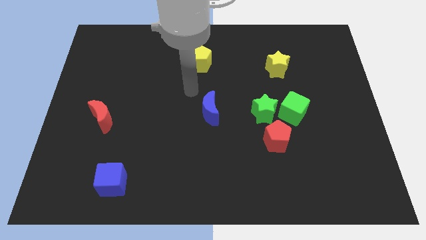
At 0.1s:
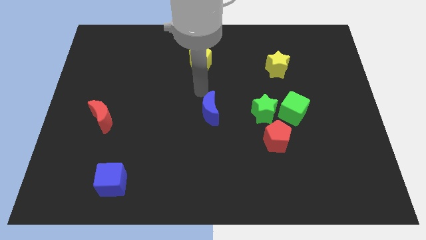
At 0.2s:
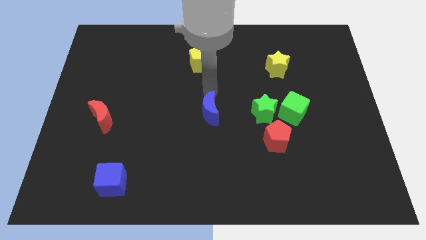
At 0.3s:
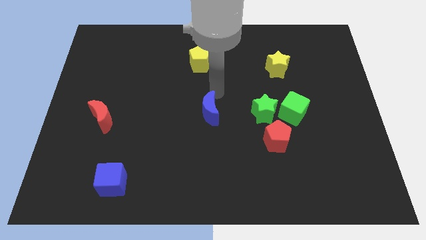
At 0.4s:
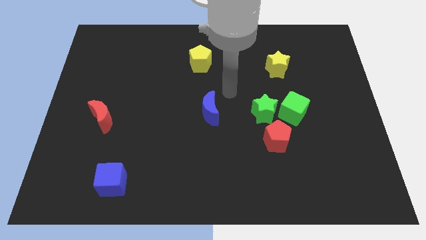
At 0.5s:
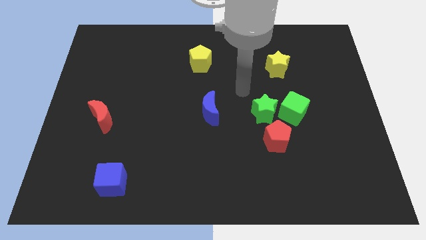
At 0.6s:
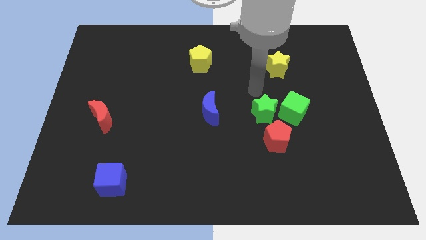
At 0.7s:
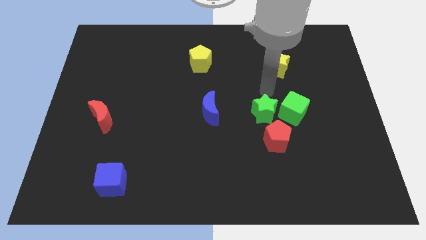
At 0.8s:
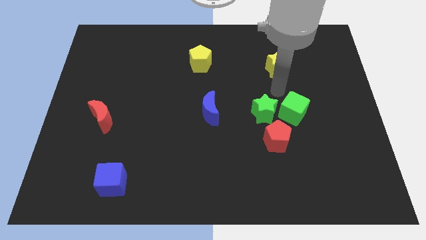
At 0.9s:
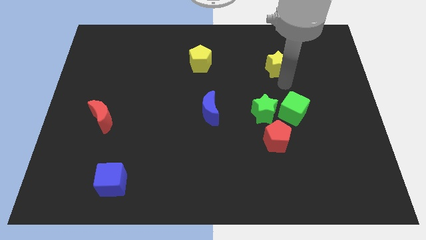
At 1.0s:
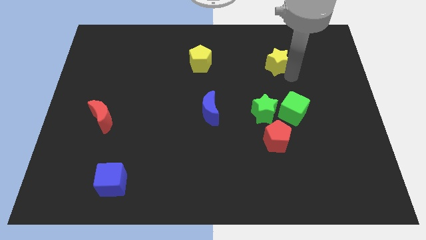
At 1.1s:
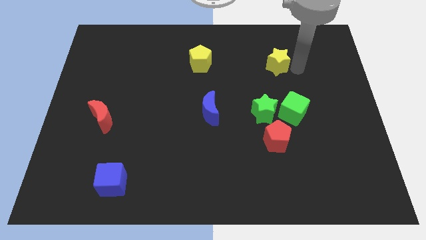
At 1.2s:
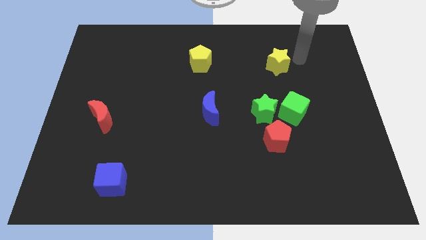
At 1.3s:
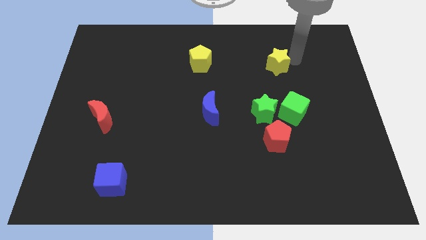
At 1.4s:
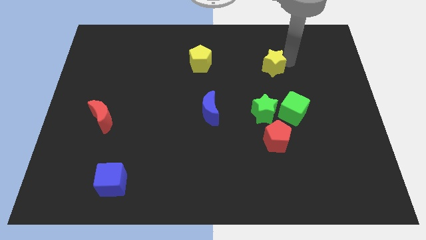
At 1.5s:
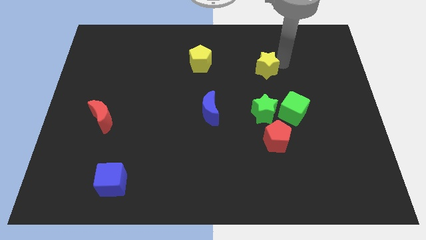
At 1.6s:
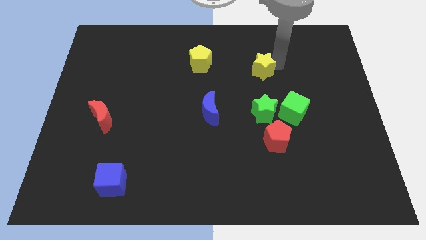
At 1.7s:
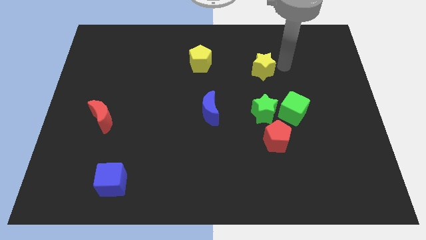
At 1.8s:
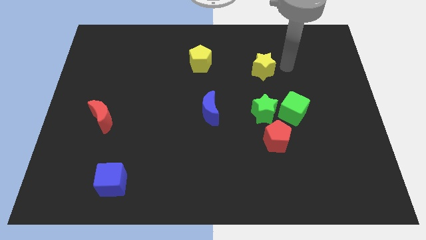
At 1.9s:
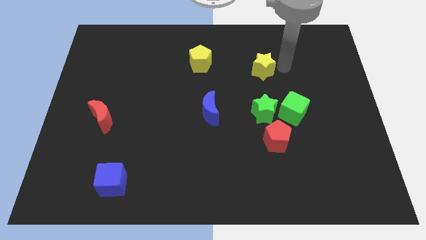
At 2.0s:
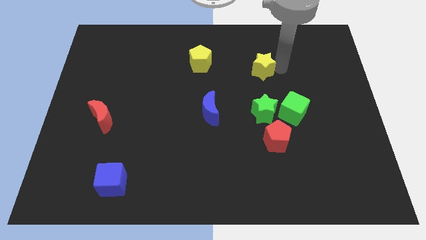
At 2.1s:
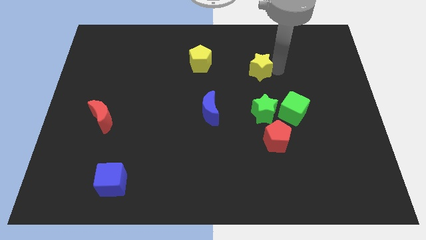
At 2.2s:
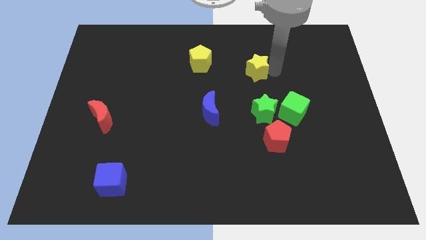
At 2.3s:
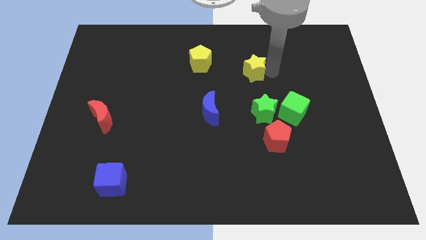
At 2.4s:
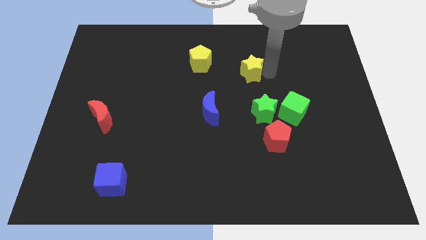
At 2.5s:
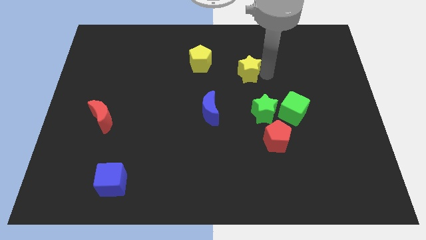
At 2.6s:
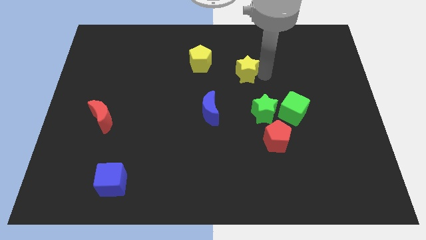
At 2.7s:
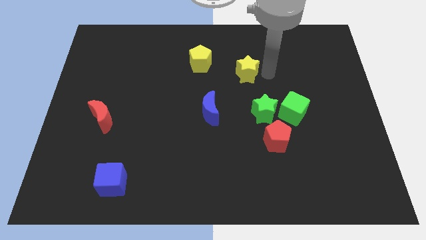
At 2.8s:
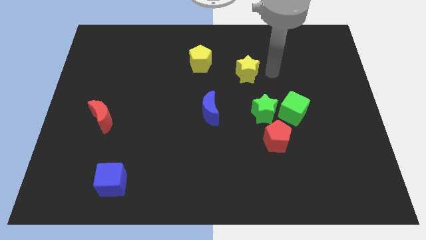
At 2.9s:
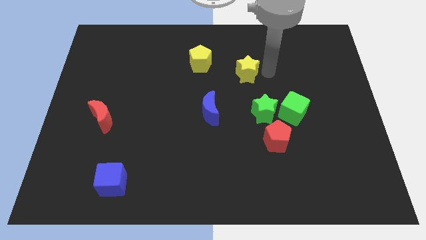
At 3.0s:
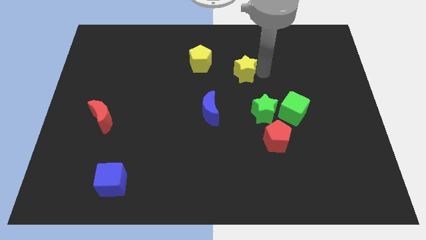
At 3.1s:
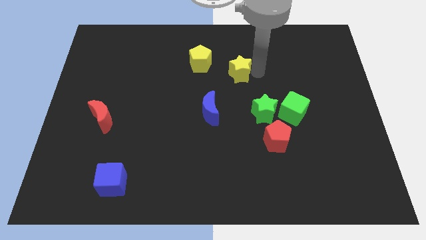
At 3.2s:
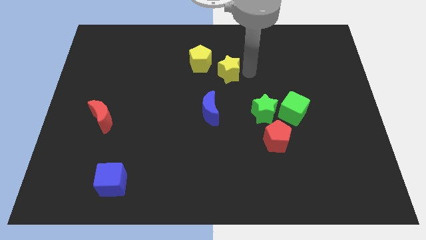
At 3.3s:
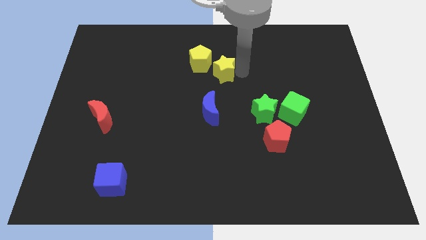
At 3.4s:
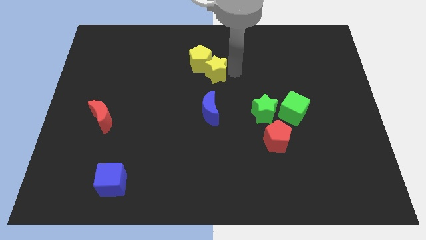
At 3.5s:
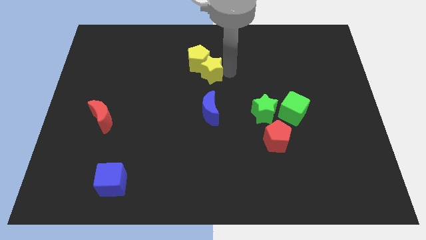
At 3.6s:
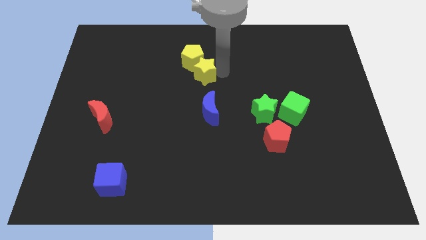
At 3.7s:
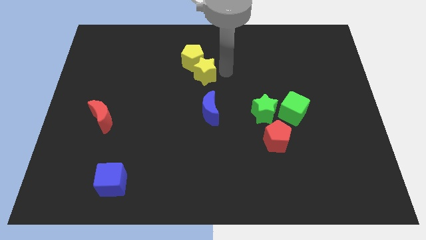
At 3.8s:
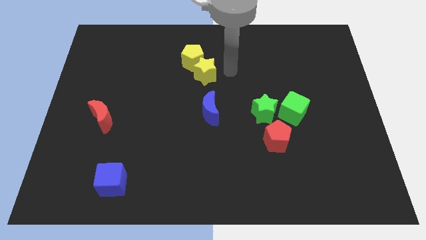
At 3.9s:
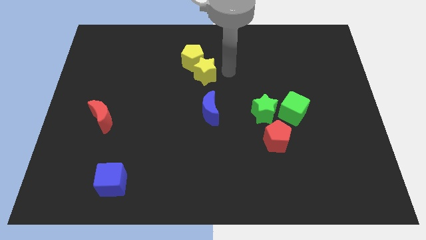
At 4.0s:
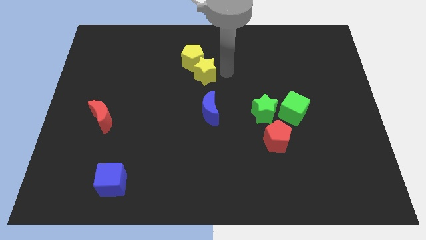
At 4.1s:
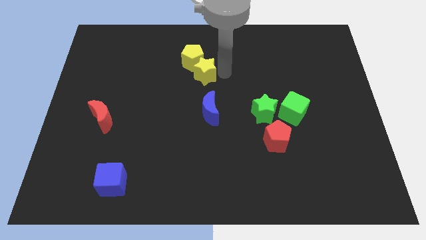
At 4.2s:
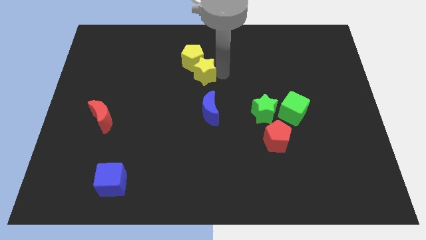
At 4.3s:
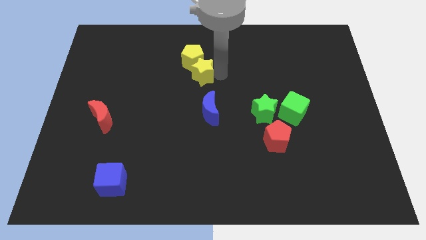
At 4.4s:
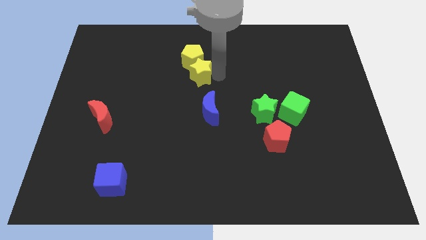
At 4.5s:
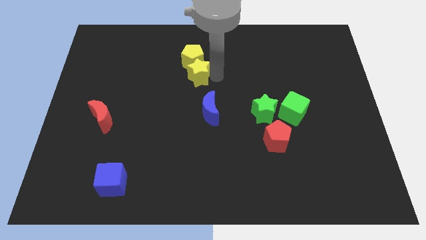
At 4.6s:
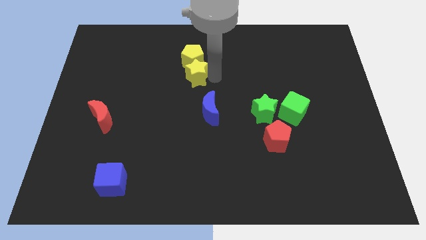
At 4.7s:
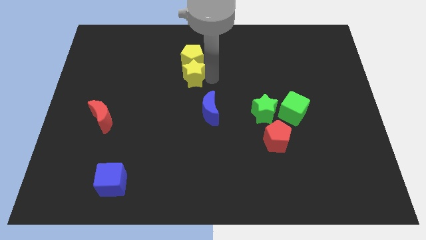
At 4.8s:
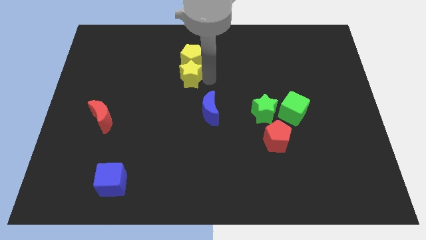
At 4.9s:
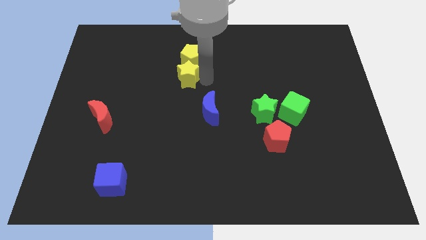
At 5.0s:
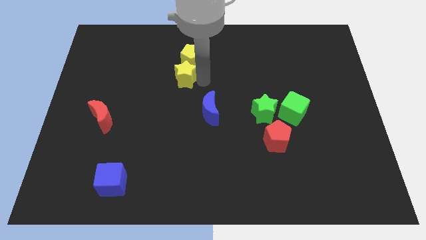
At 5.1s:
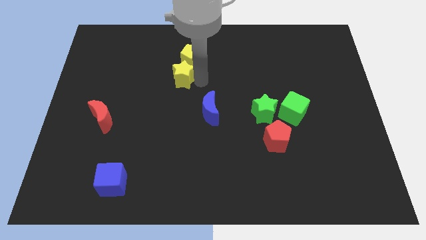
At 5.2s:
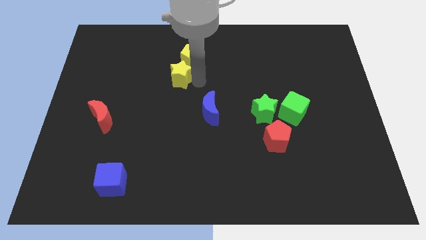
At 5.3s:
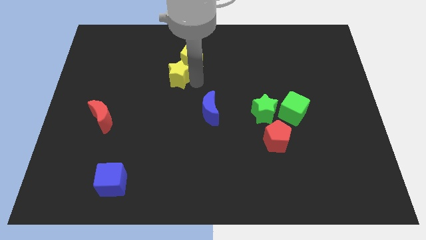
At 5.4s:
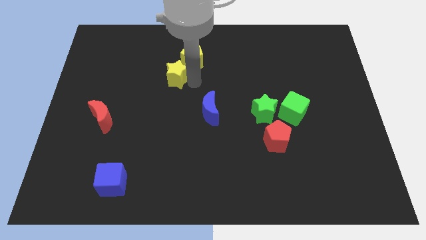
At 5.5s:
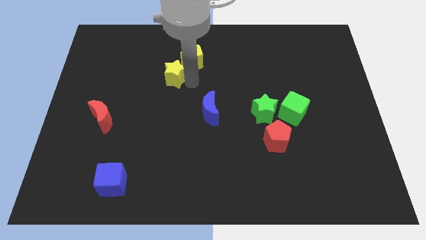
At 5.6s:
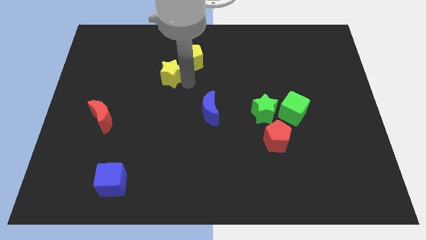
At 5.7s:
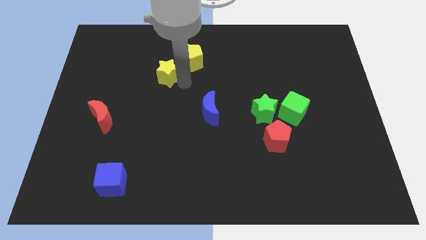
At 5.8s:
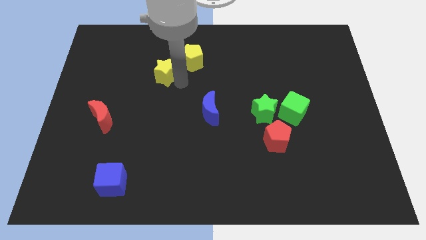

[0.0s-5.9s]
slide the yellow star to the left of the yellow pentagon

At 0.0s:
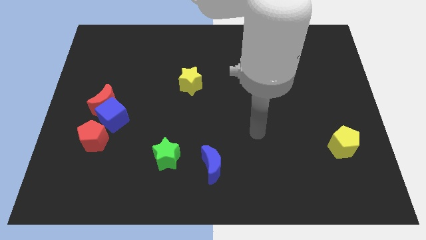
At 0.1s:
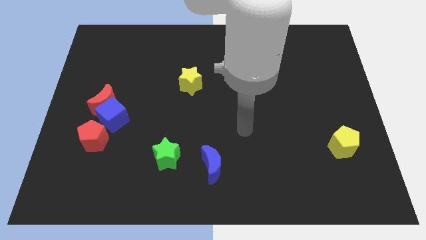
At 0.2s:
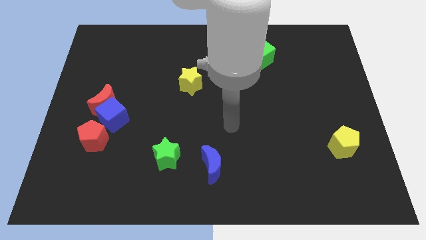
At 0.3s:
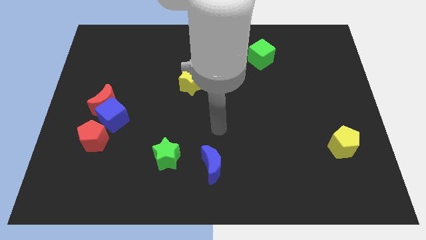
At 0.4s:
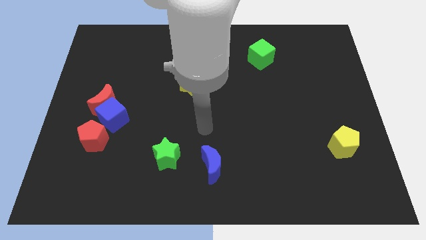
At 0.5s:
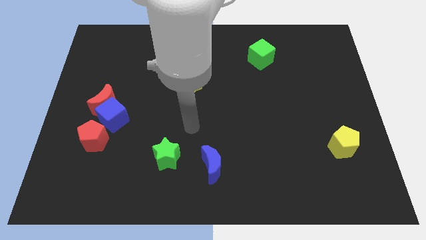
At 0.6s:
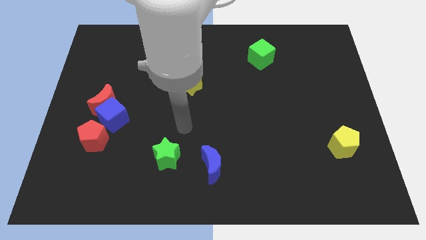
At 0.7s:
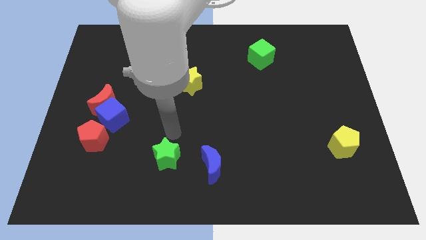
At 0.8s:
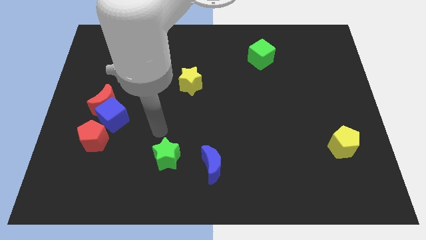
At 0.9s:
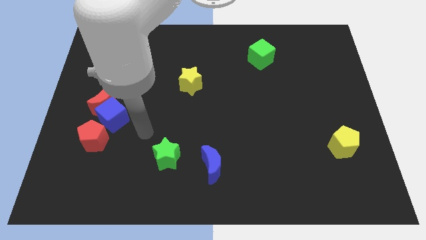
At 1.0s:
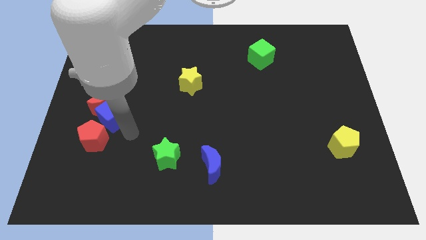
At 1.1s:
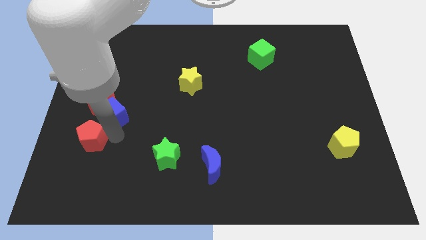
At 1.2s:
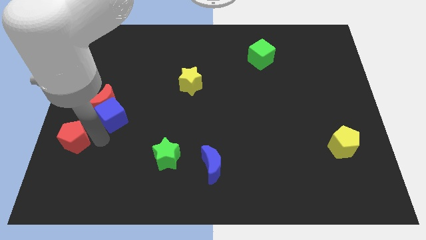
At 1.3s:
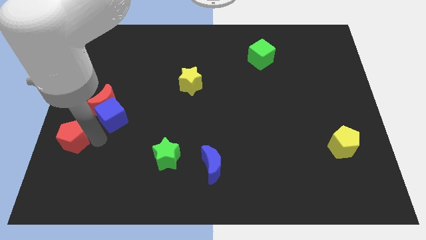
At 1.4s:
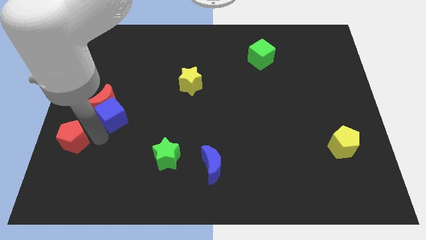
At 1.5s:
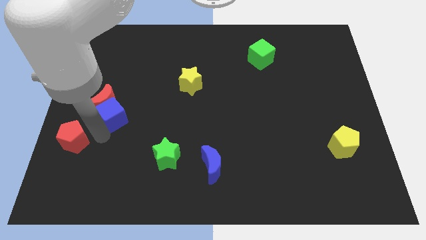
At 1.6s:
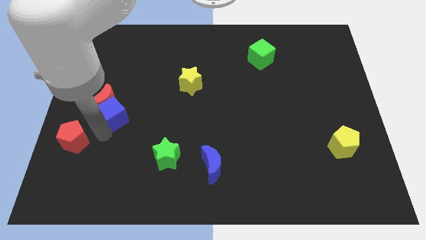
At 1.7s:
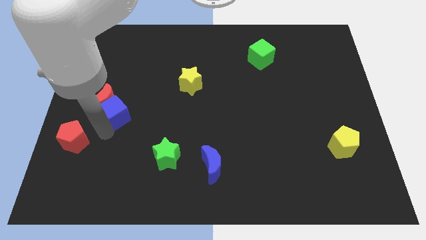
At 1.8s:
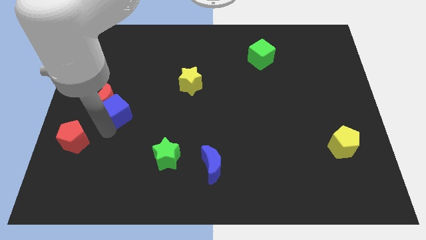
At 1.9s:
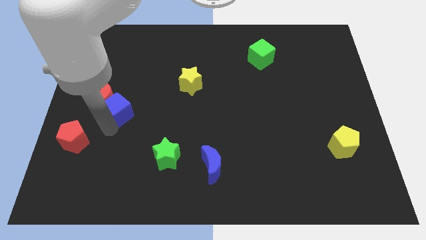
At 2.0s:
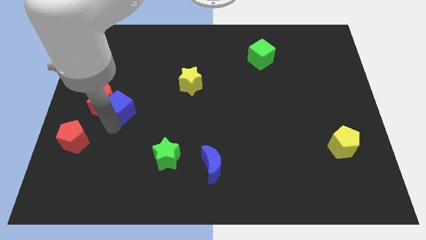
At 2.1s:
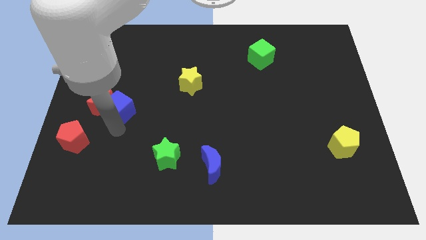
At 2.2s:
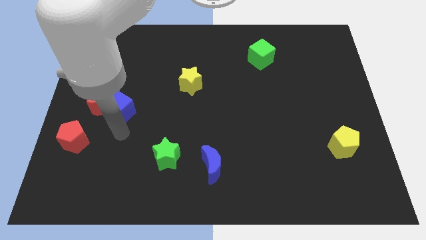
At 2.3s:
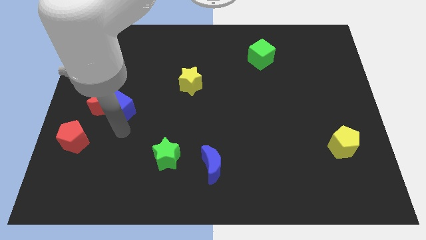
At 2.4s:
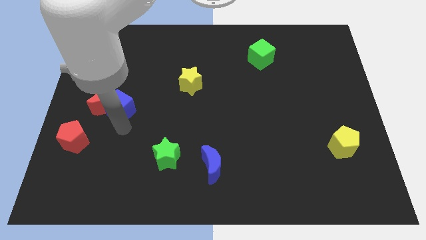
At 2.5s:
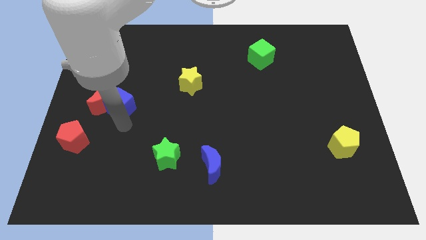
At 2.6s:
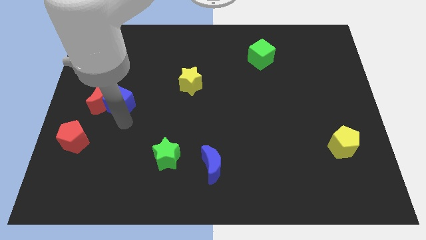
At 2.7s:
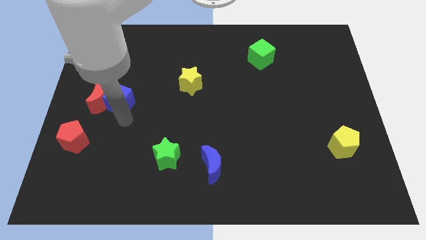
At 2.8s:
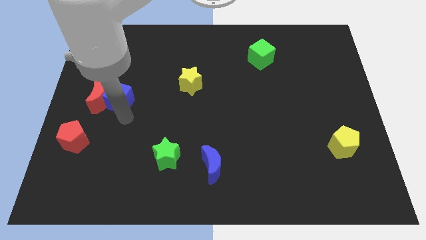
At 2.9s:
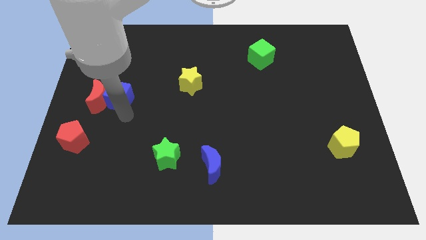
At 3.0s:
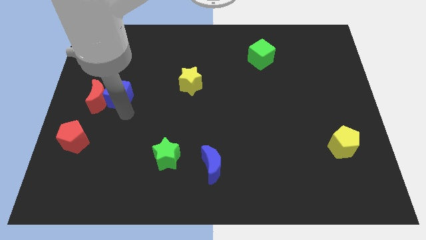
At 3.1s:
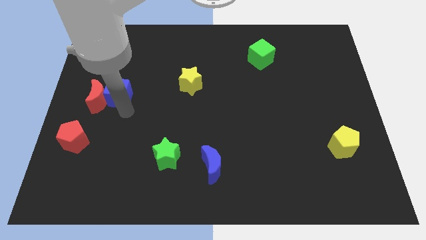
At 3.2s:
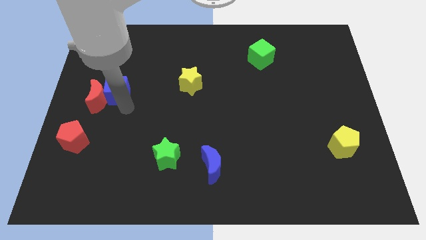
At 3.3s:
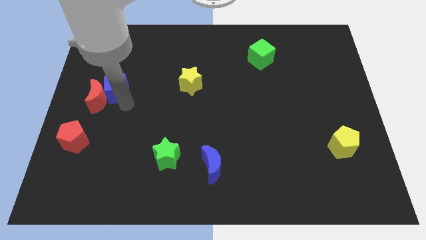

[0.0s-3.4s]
push the blue cube to the top side of the red moon
